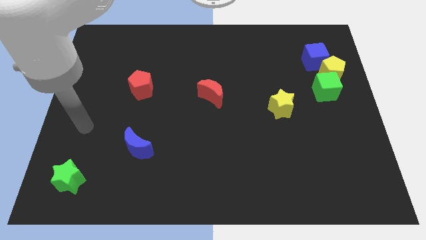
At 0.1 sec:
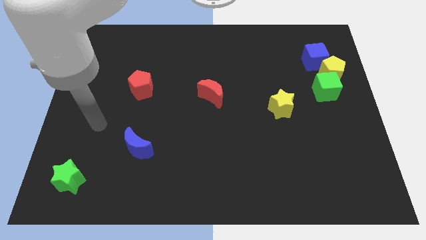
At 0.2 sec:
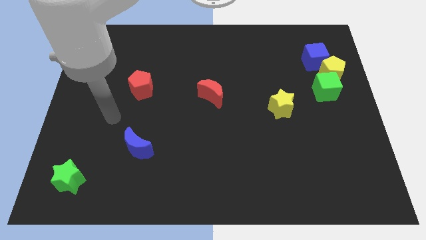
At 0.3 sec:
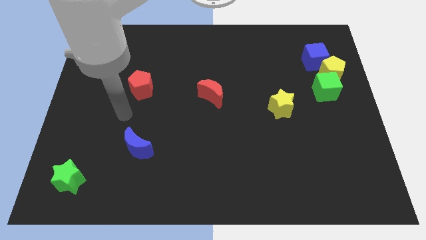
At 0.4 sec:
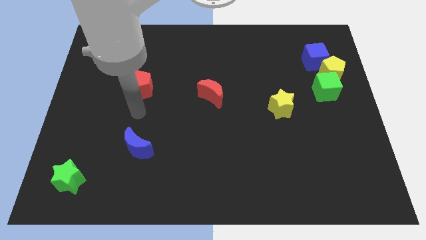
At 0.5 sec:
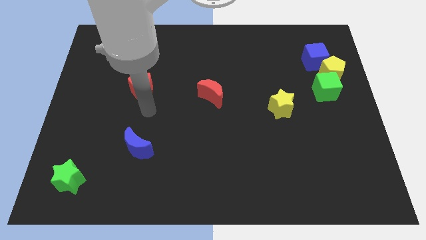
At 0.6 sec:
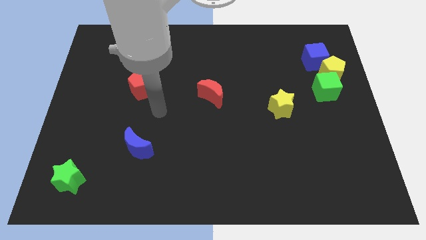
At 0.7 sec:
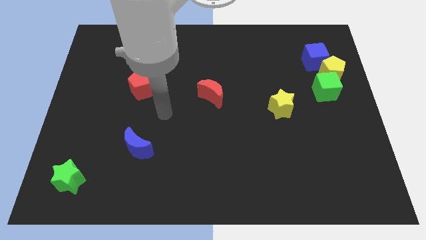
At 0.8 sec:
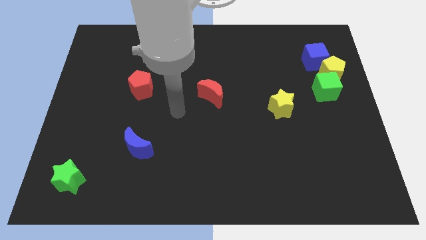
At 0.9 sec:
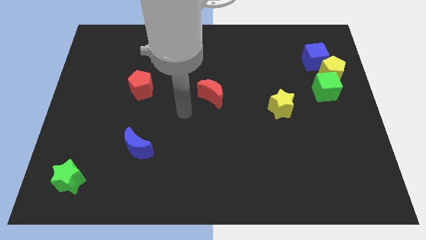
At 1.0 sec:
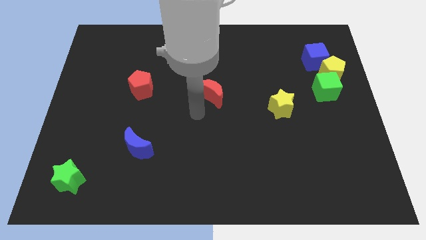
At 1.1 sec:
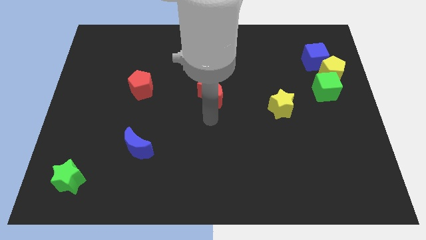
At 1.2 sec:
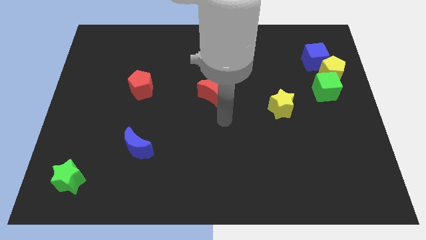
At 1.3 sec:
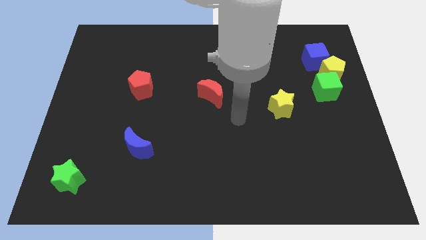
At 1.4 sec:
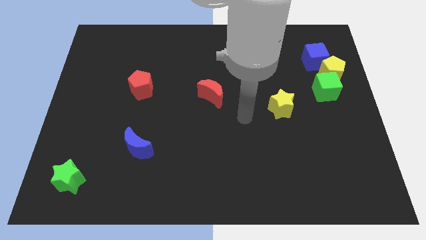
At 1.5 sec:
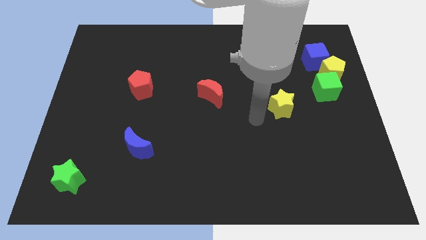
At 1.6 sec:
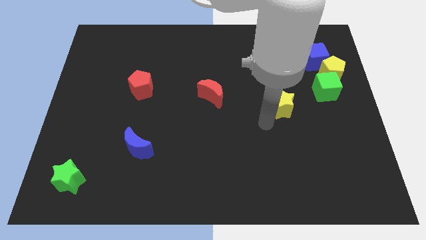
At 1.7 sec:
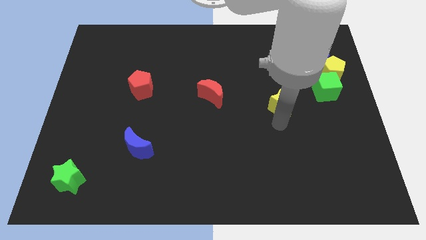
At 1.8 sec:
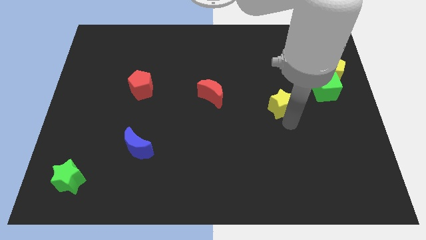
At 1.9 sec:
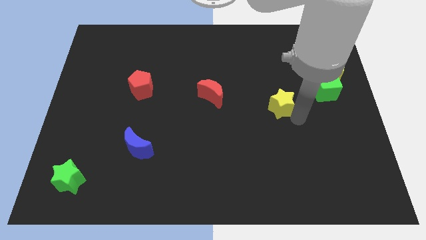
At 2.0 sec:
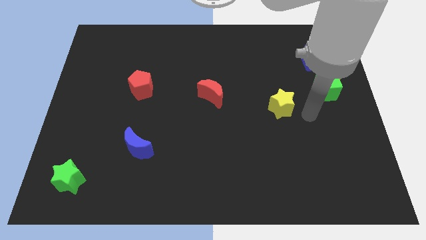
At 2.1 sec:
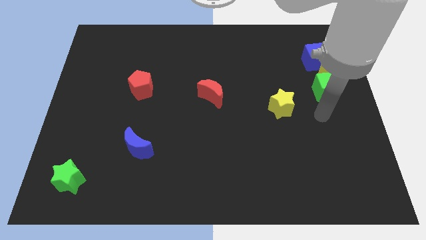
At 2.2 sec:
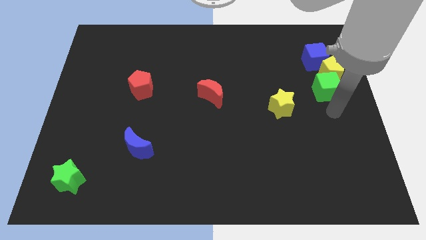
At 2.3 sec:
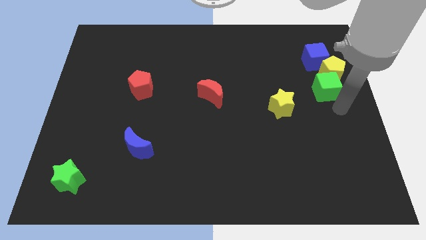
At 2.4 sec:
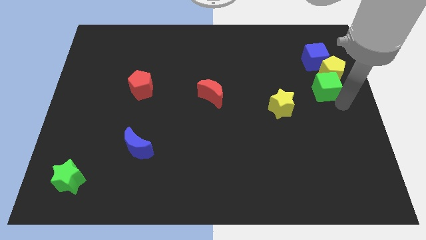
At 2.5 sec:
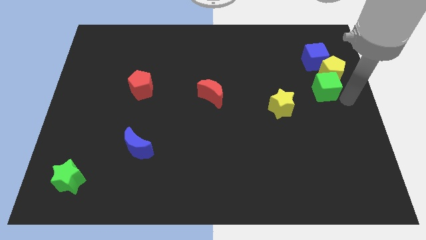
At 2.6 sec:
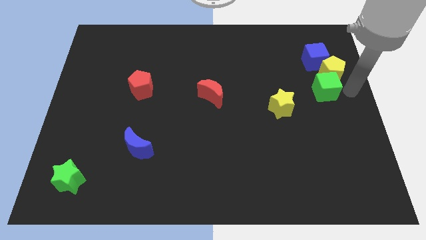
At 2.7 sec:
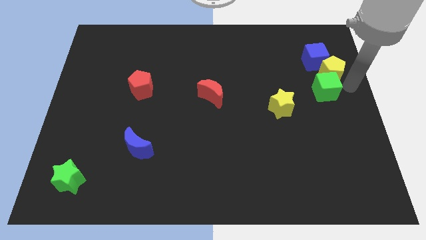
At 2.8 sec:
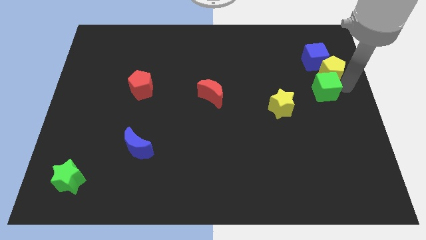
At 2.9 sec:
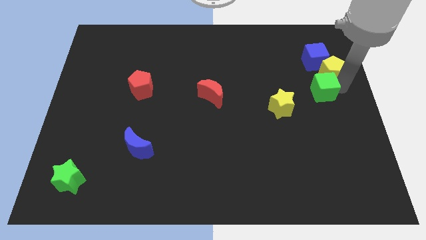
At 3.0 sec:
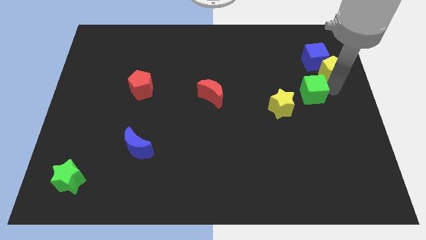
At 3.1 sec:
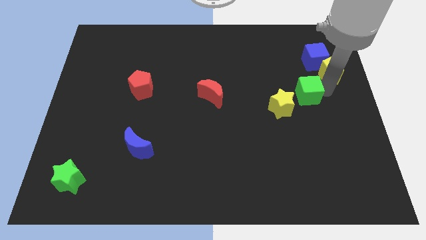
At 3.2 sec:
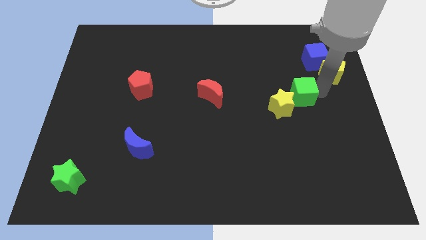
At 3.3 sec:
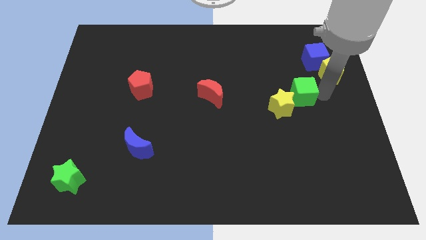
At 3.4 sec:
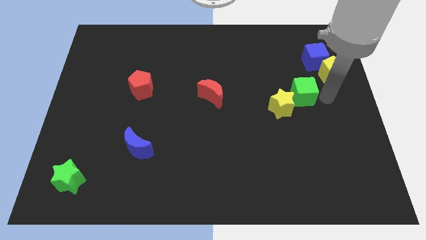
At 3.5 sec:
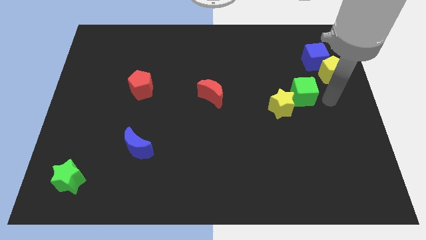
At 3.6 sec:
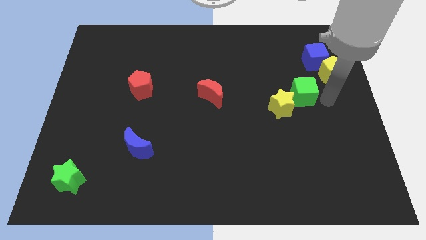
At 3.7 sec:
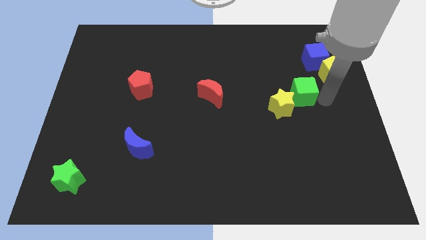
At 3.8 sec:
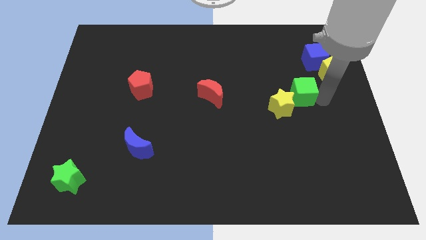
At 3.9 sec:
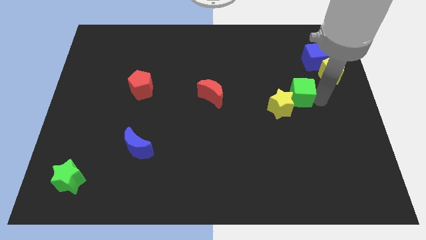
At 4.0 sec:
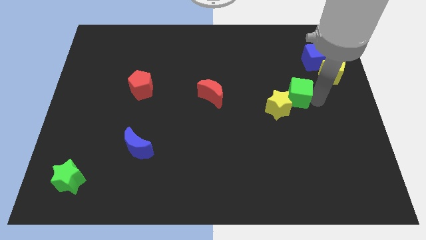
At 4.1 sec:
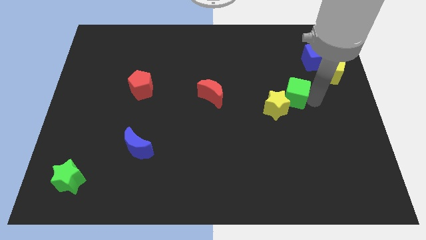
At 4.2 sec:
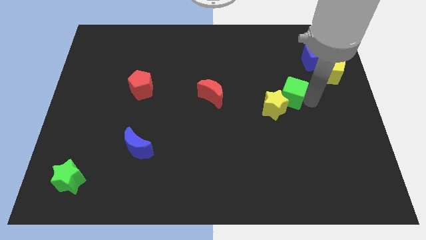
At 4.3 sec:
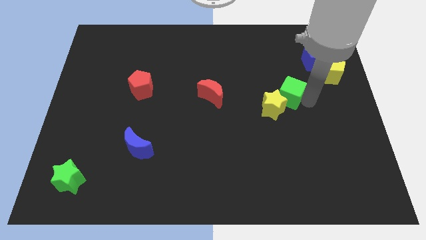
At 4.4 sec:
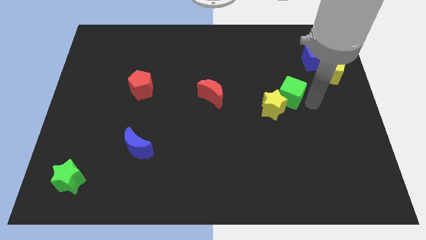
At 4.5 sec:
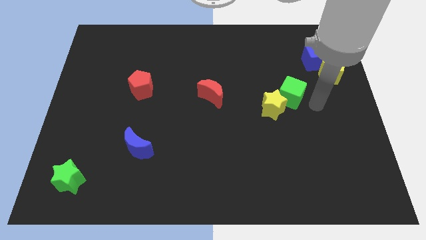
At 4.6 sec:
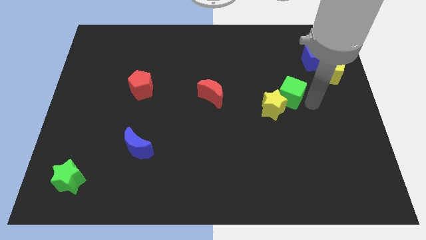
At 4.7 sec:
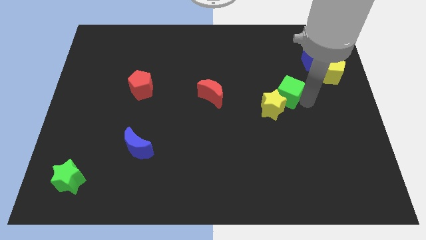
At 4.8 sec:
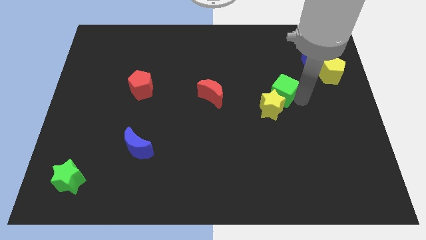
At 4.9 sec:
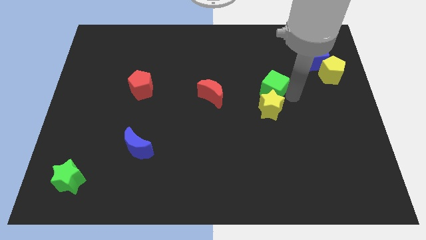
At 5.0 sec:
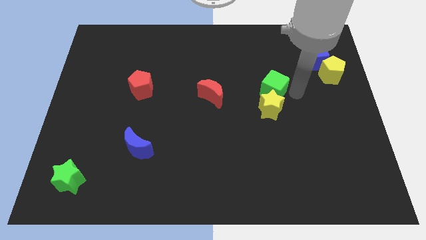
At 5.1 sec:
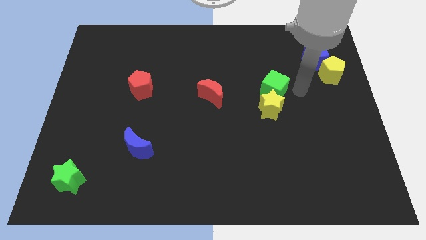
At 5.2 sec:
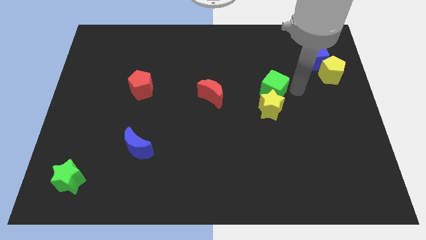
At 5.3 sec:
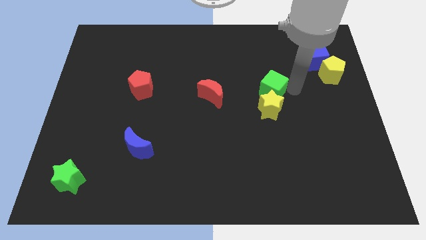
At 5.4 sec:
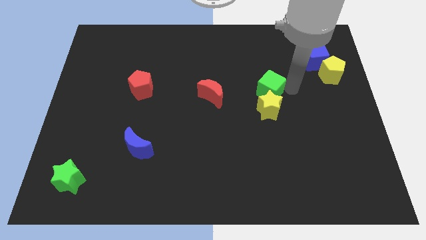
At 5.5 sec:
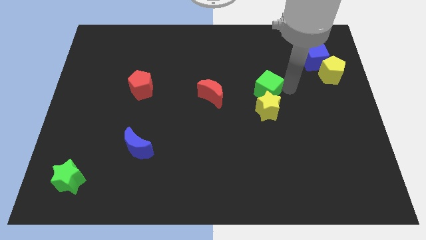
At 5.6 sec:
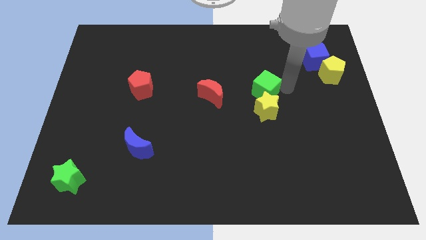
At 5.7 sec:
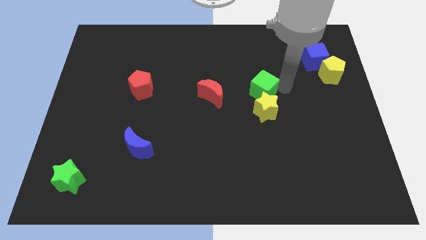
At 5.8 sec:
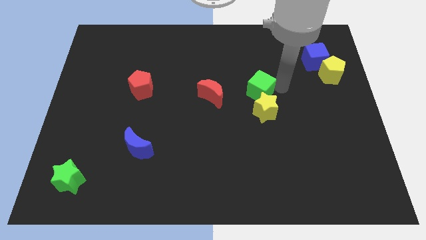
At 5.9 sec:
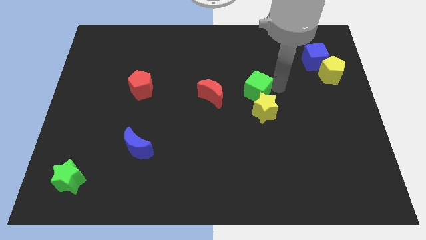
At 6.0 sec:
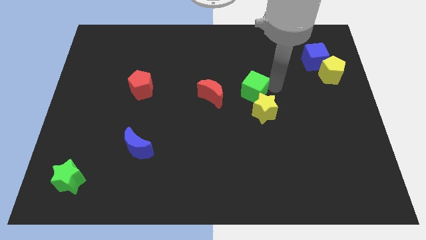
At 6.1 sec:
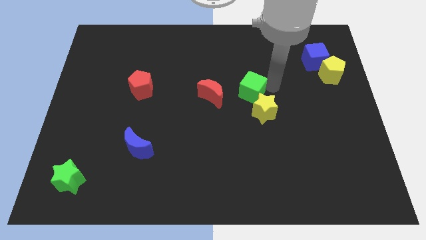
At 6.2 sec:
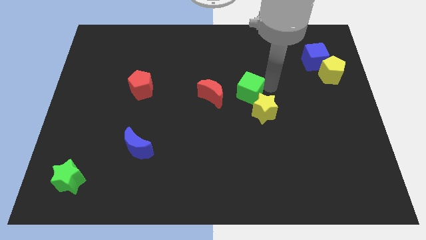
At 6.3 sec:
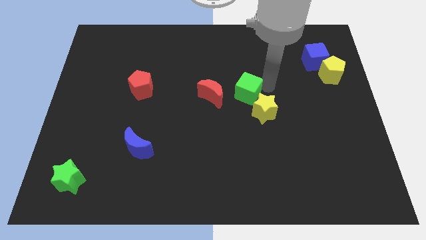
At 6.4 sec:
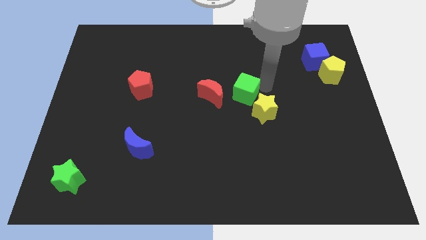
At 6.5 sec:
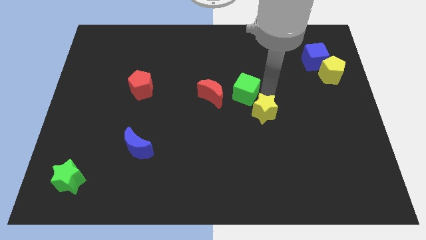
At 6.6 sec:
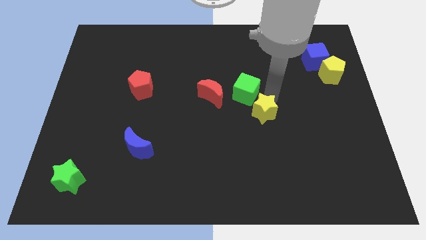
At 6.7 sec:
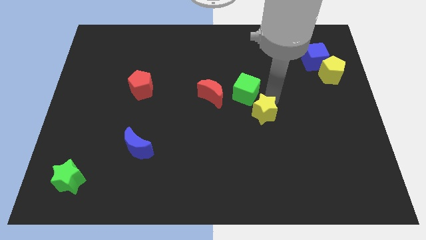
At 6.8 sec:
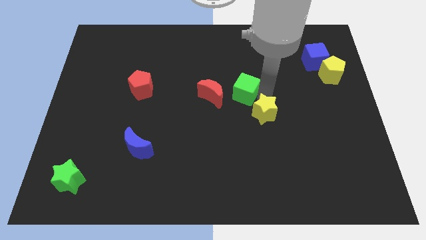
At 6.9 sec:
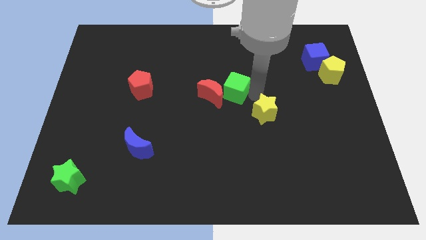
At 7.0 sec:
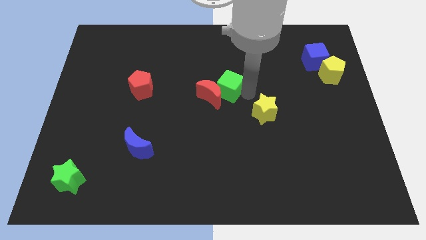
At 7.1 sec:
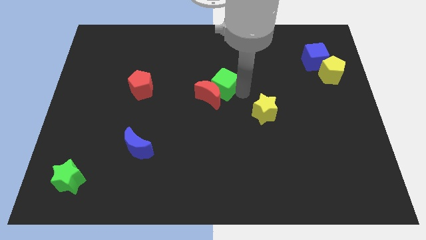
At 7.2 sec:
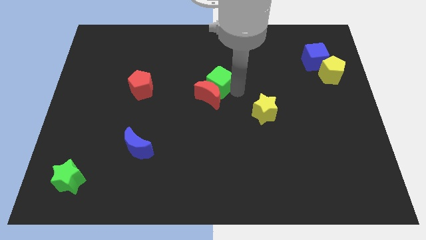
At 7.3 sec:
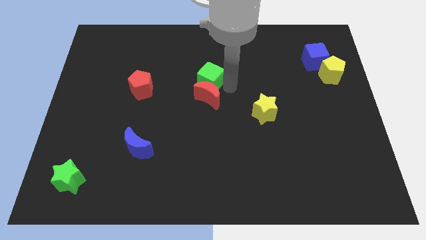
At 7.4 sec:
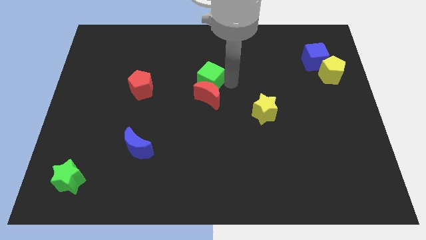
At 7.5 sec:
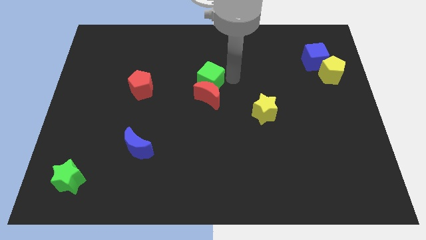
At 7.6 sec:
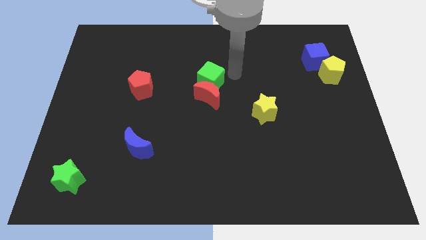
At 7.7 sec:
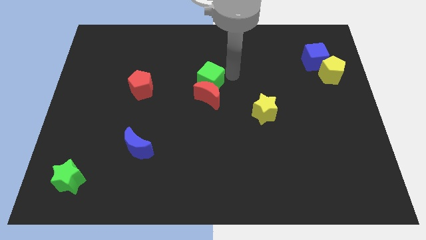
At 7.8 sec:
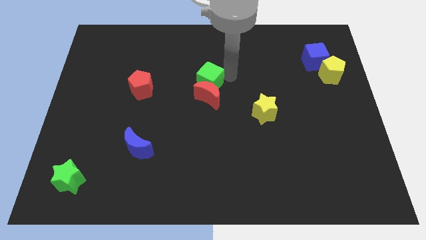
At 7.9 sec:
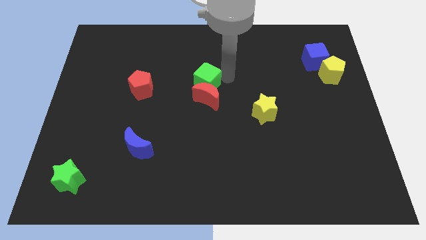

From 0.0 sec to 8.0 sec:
slide the green cube just right of the red pentagon
